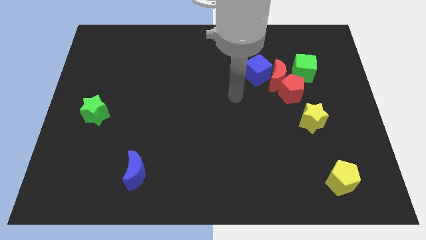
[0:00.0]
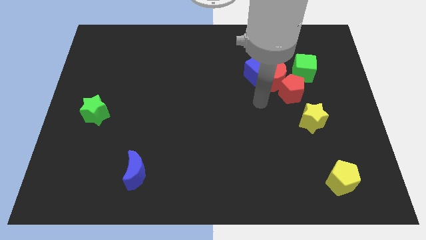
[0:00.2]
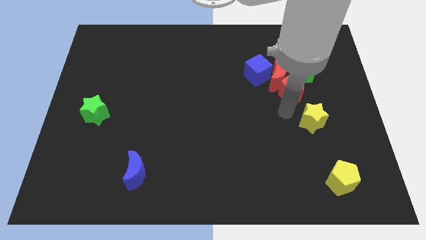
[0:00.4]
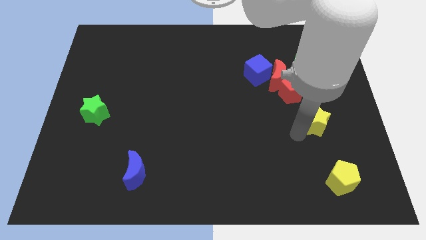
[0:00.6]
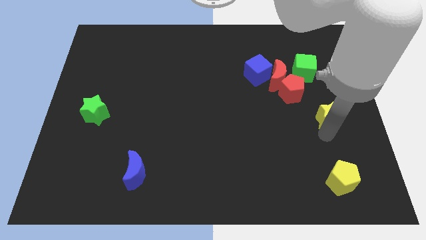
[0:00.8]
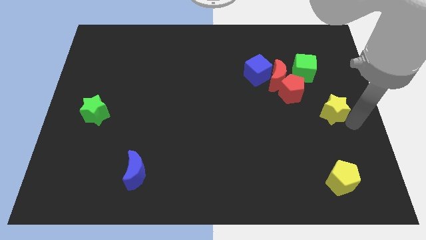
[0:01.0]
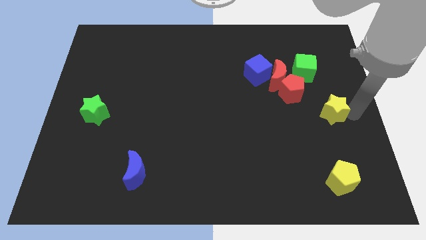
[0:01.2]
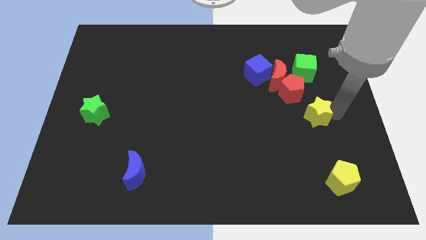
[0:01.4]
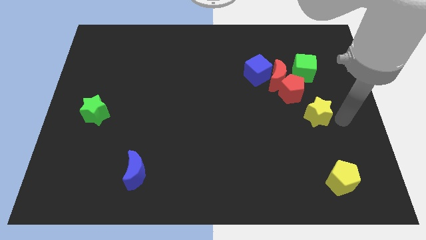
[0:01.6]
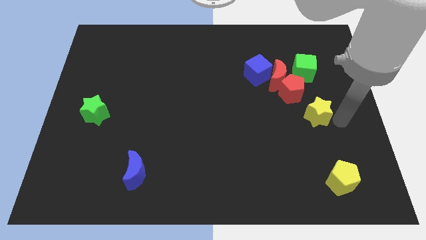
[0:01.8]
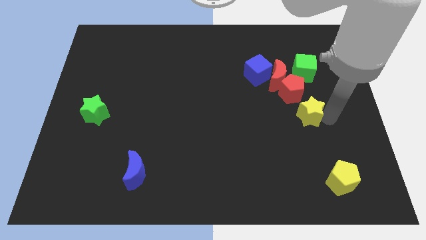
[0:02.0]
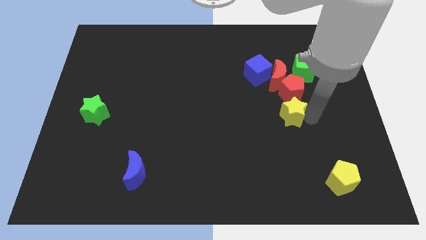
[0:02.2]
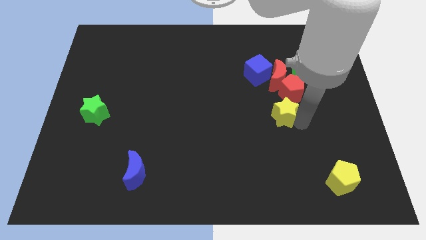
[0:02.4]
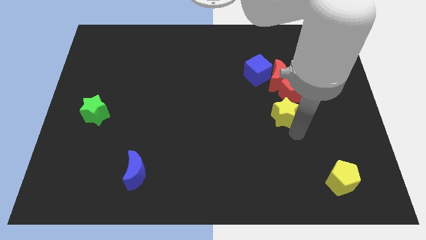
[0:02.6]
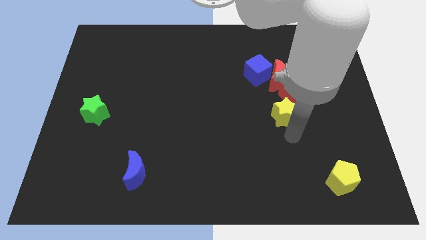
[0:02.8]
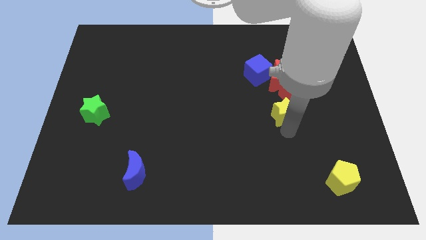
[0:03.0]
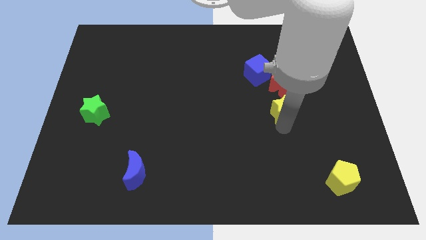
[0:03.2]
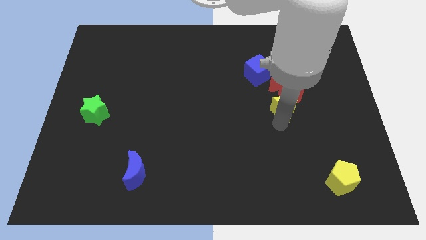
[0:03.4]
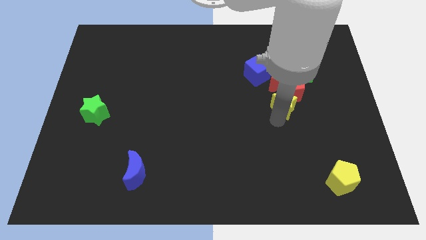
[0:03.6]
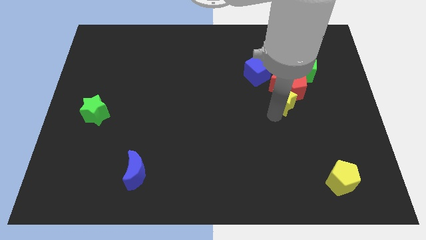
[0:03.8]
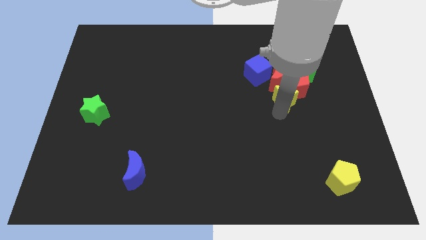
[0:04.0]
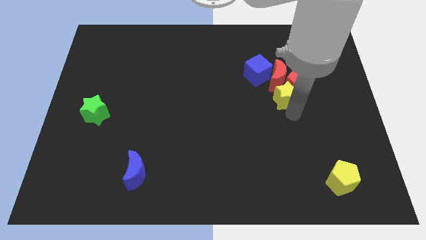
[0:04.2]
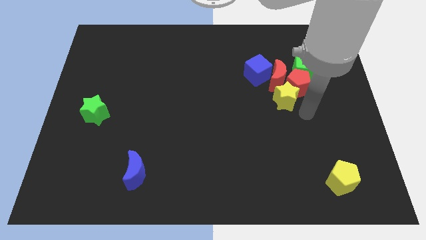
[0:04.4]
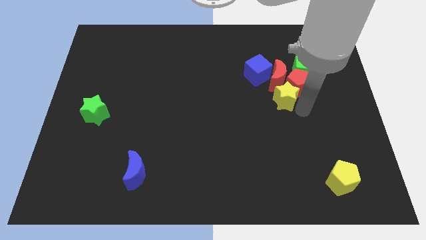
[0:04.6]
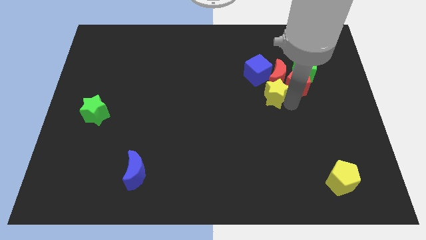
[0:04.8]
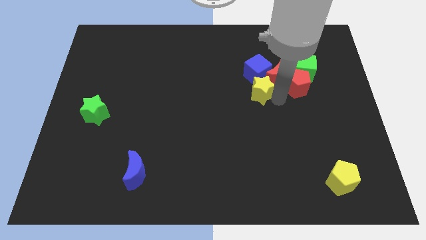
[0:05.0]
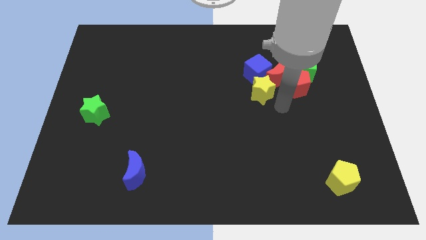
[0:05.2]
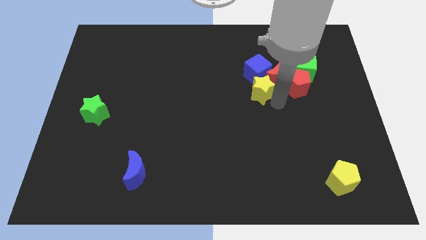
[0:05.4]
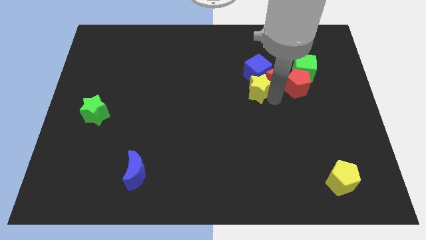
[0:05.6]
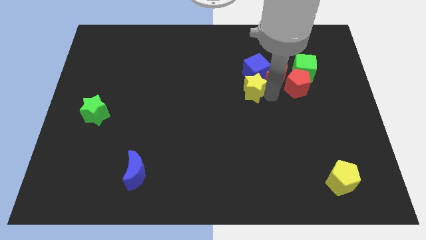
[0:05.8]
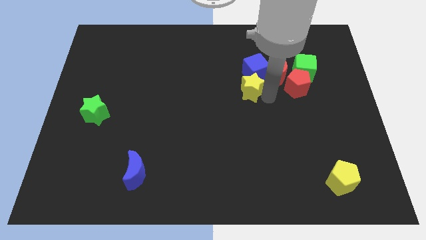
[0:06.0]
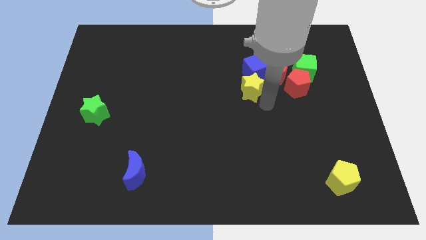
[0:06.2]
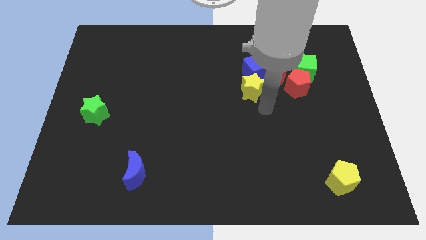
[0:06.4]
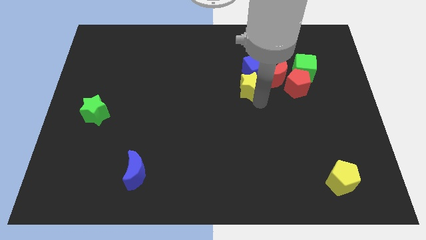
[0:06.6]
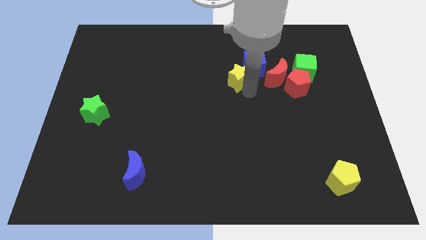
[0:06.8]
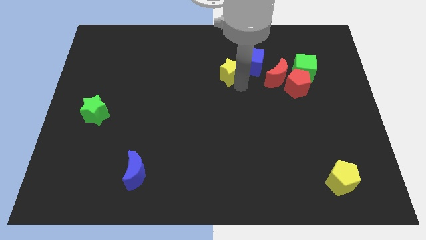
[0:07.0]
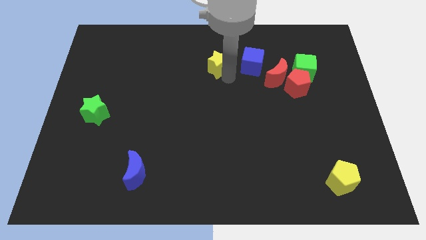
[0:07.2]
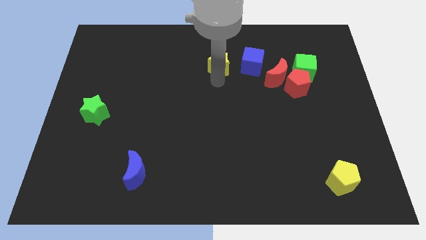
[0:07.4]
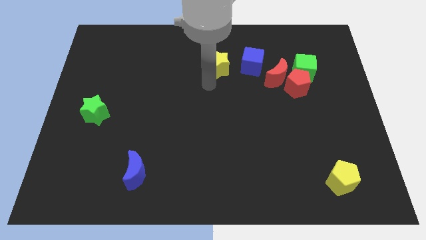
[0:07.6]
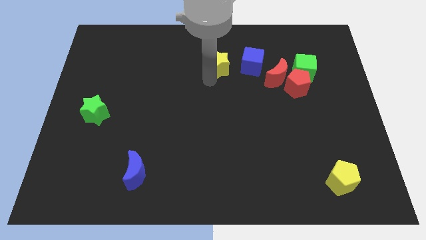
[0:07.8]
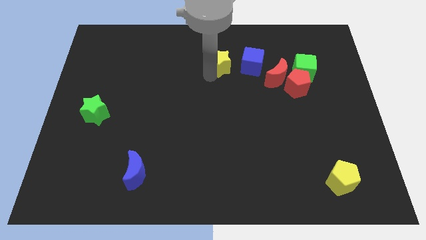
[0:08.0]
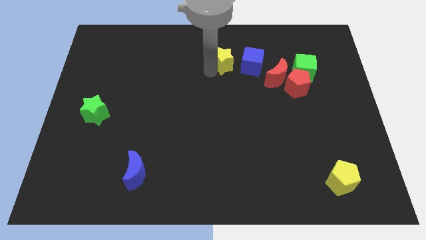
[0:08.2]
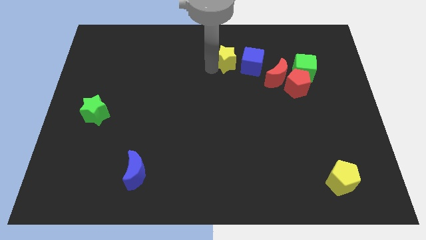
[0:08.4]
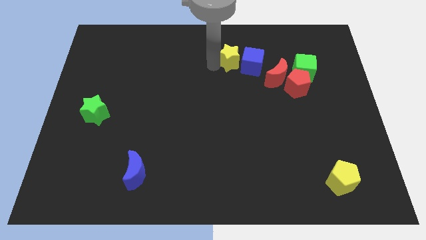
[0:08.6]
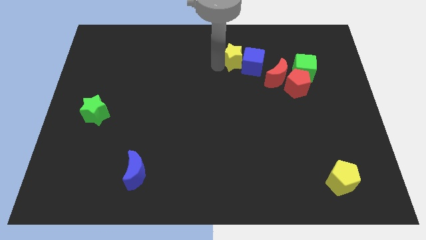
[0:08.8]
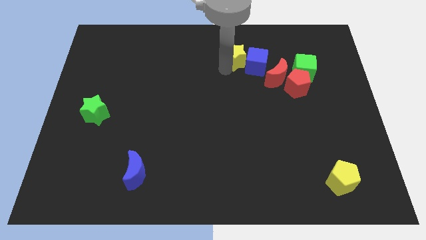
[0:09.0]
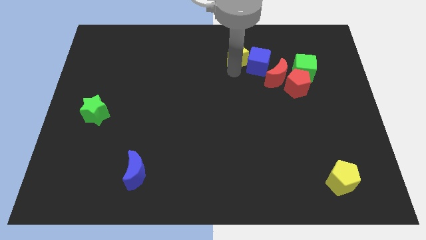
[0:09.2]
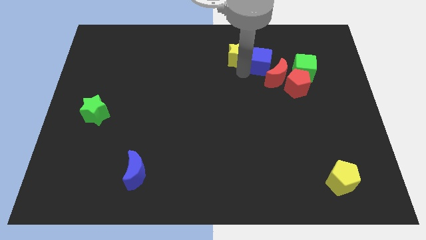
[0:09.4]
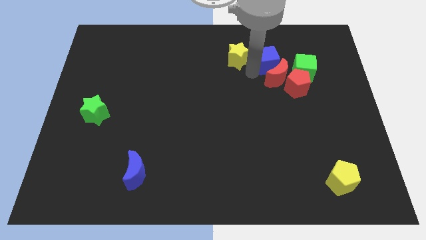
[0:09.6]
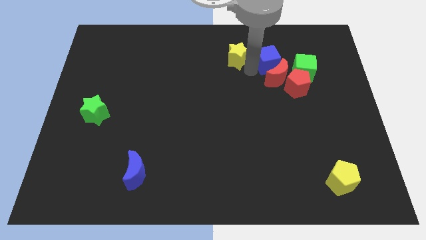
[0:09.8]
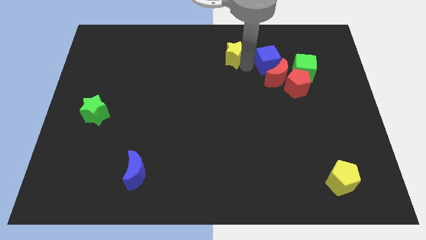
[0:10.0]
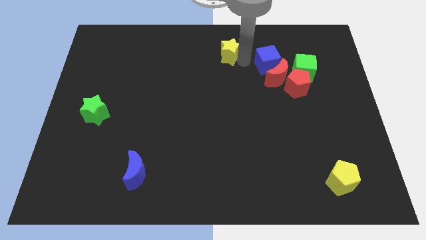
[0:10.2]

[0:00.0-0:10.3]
push the yellow star to the top side

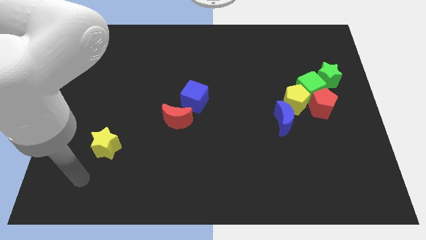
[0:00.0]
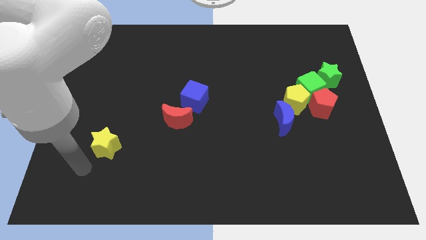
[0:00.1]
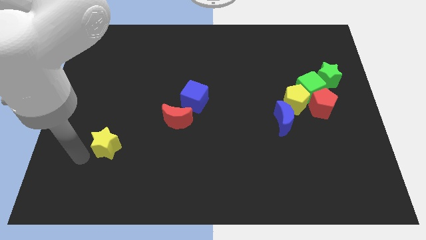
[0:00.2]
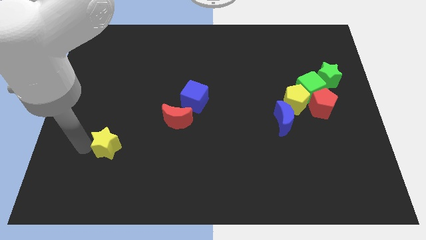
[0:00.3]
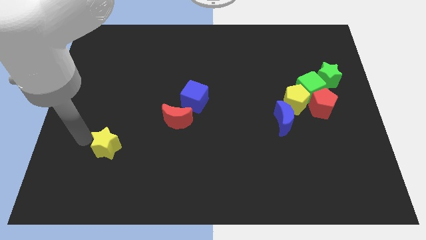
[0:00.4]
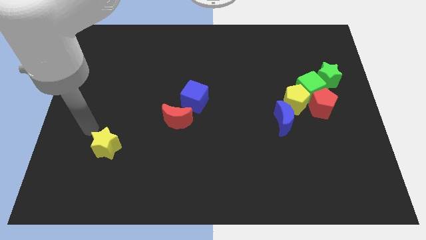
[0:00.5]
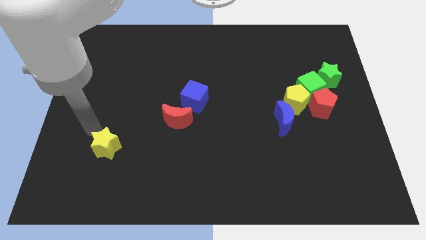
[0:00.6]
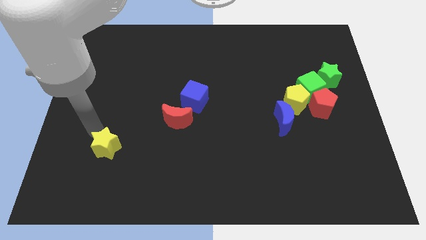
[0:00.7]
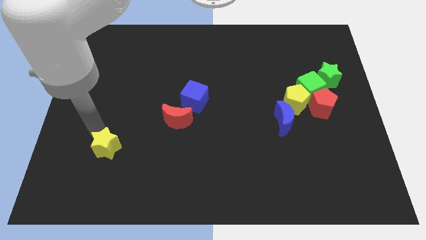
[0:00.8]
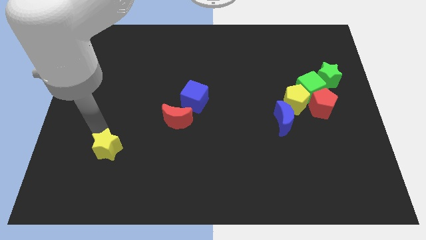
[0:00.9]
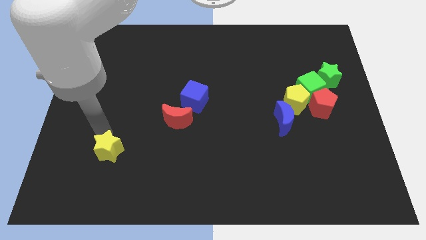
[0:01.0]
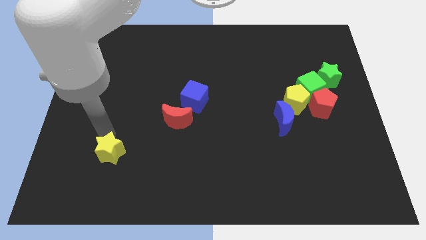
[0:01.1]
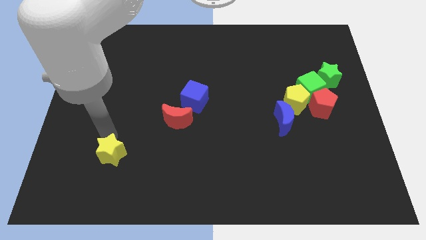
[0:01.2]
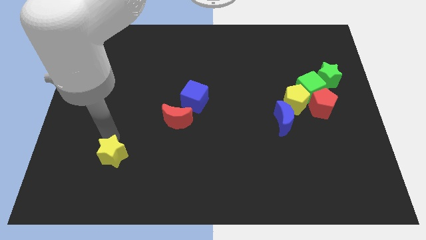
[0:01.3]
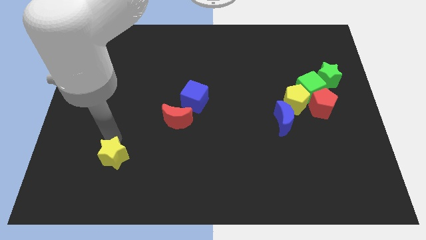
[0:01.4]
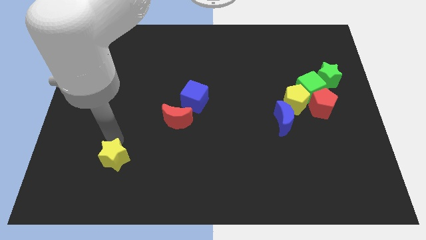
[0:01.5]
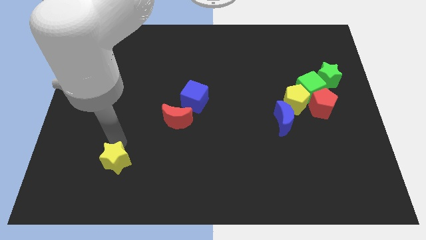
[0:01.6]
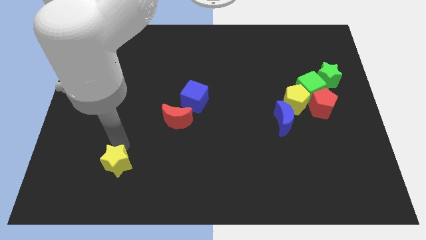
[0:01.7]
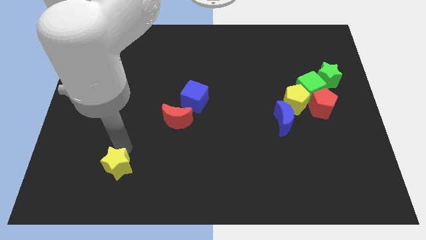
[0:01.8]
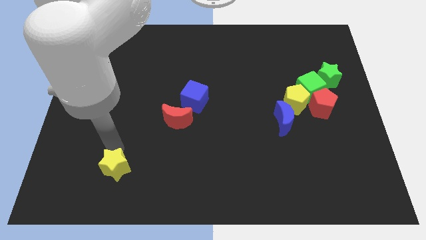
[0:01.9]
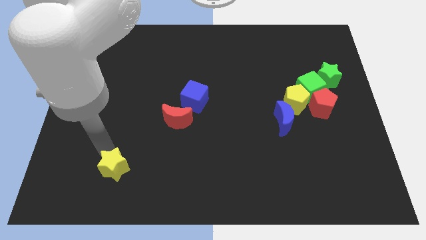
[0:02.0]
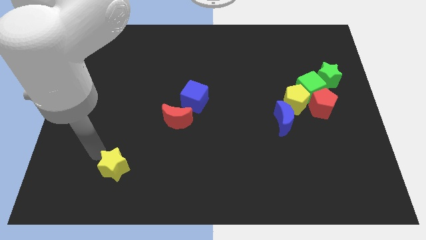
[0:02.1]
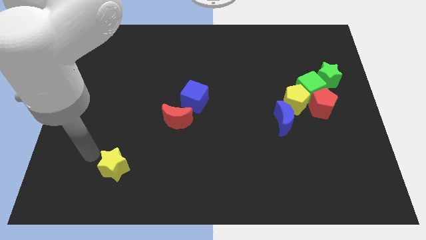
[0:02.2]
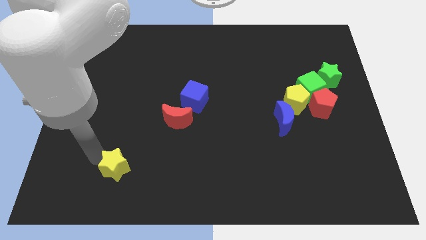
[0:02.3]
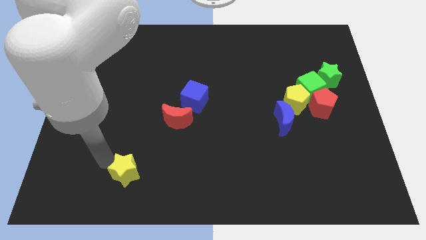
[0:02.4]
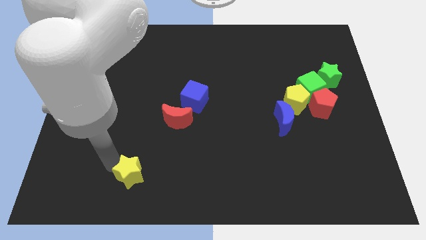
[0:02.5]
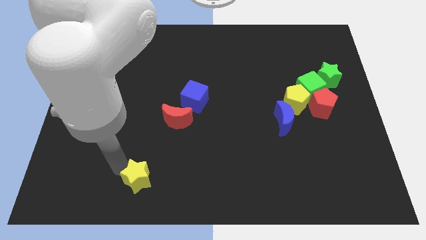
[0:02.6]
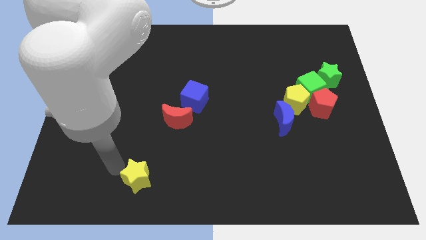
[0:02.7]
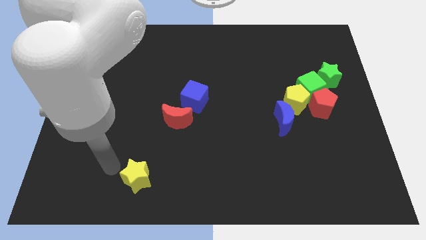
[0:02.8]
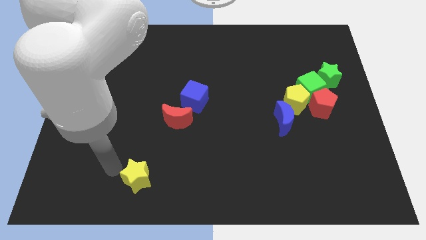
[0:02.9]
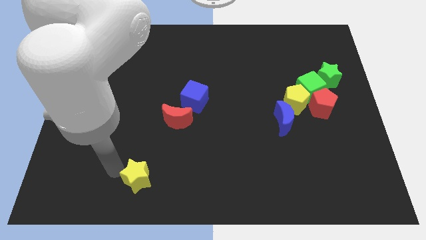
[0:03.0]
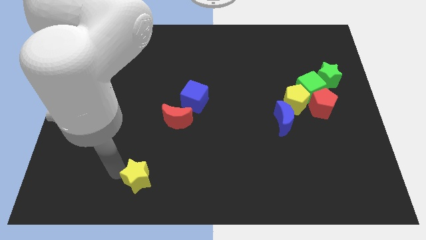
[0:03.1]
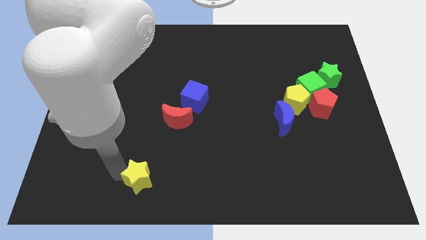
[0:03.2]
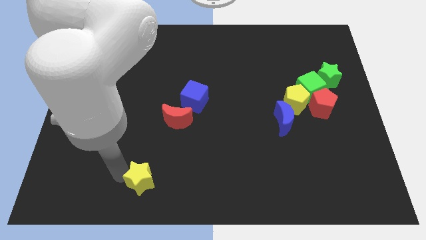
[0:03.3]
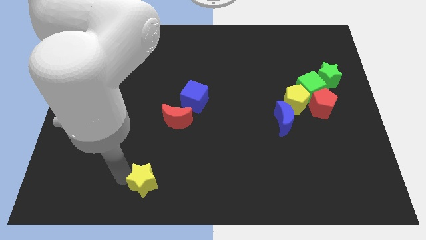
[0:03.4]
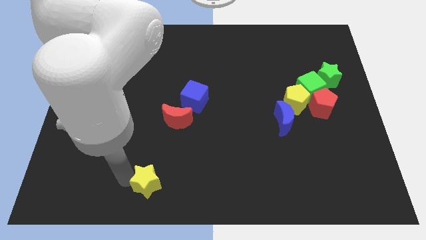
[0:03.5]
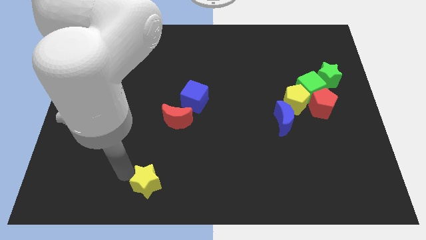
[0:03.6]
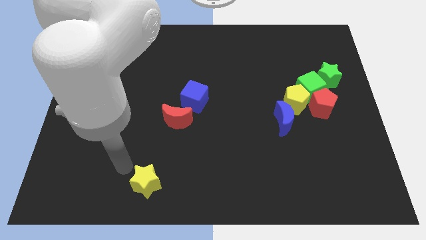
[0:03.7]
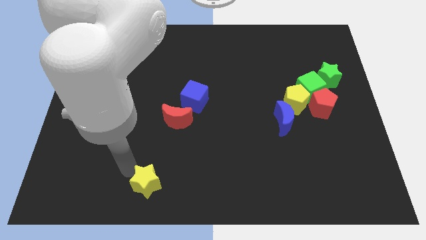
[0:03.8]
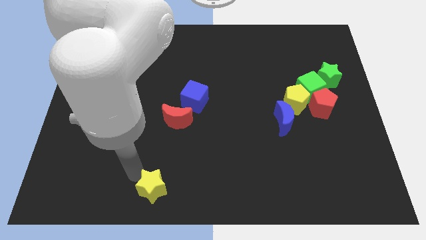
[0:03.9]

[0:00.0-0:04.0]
move the yellow star to the bottom side
